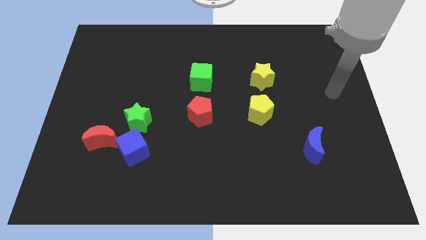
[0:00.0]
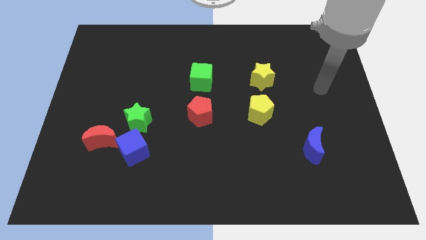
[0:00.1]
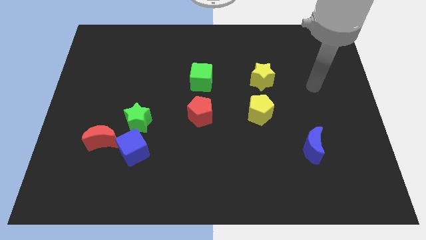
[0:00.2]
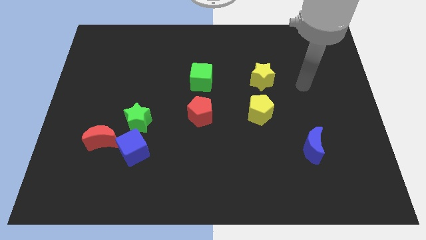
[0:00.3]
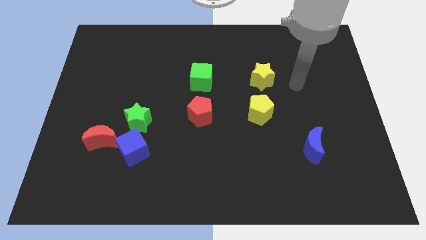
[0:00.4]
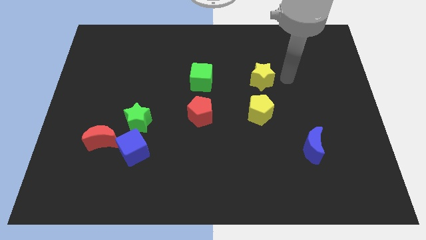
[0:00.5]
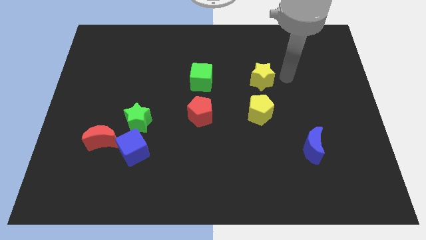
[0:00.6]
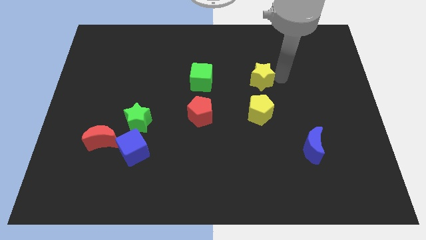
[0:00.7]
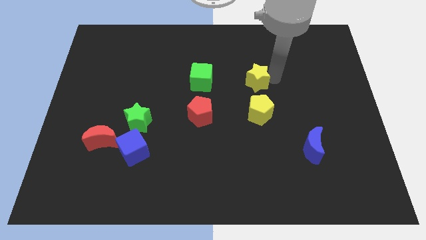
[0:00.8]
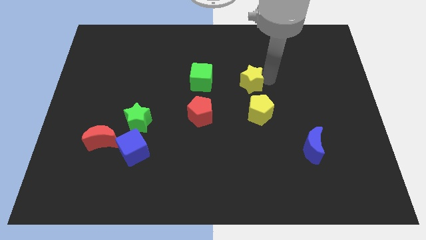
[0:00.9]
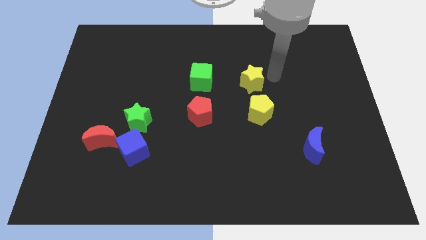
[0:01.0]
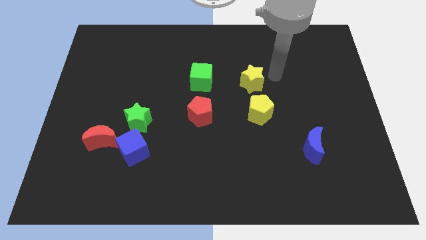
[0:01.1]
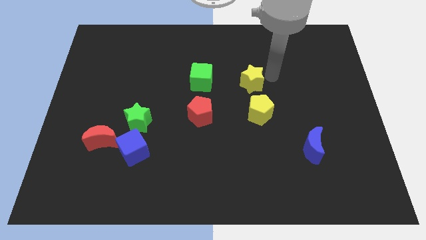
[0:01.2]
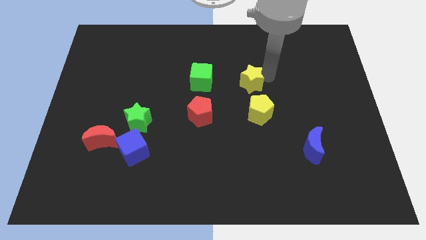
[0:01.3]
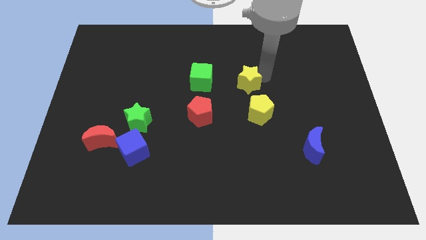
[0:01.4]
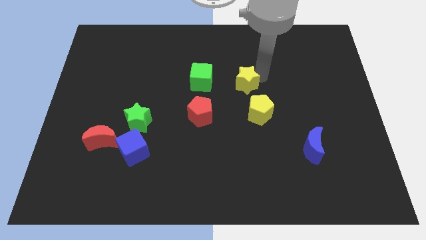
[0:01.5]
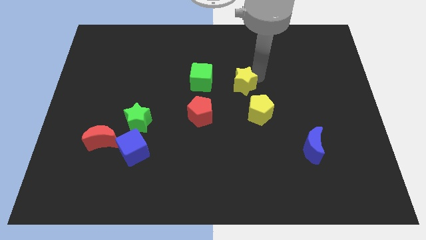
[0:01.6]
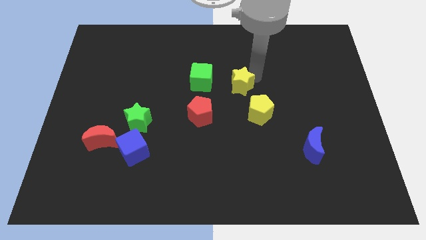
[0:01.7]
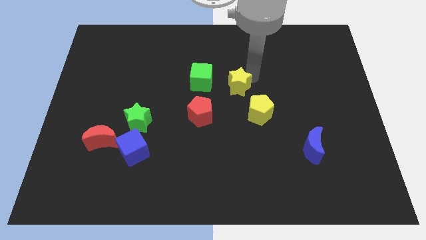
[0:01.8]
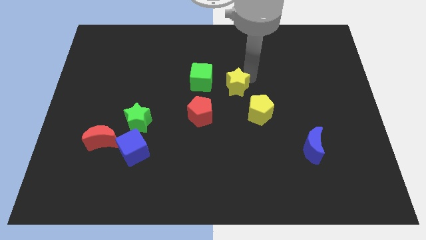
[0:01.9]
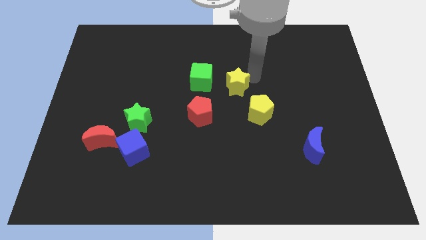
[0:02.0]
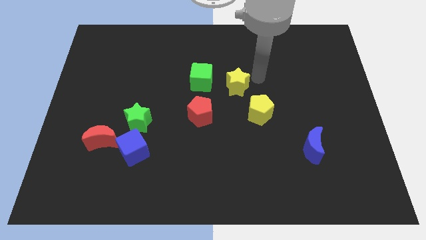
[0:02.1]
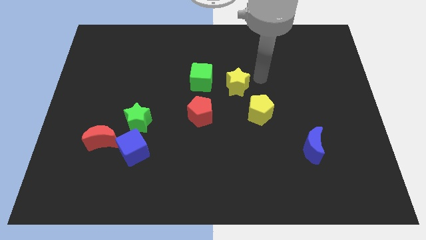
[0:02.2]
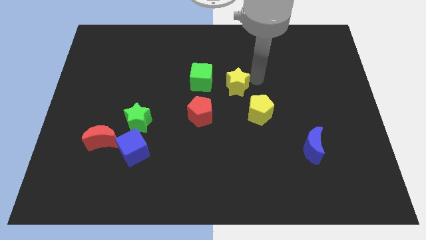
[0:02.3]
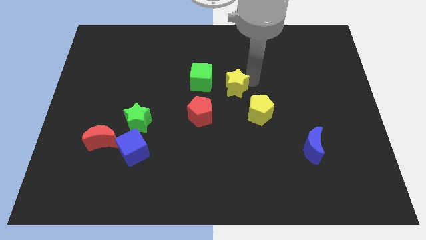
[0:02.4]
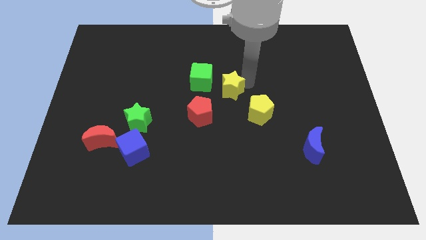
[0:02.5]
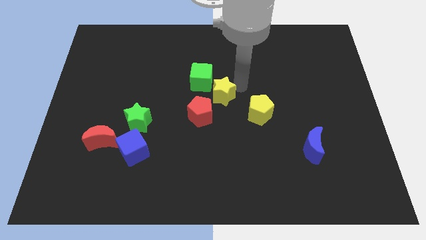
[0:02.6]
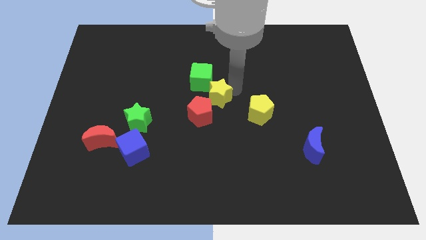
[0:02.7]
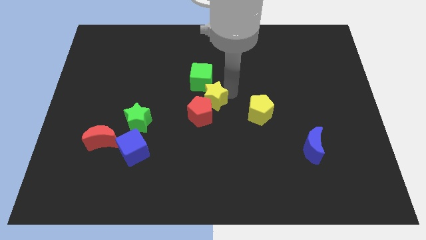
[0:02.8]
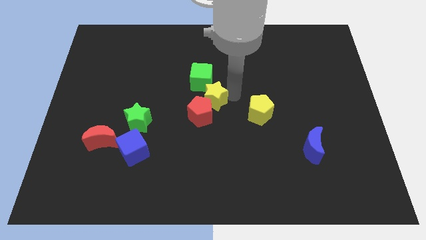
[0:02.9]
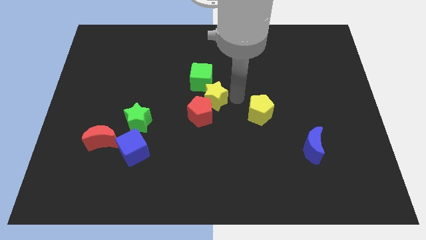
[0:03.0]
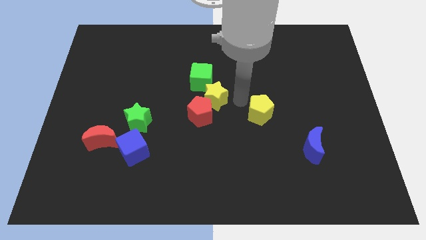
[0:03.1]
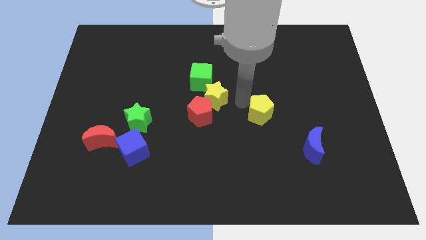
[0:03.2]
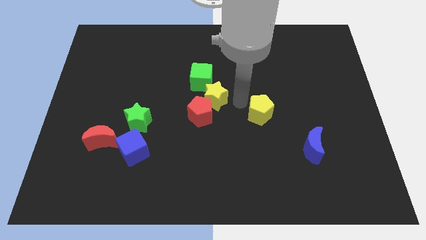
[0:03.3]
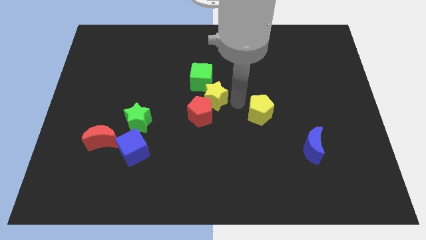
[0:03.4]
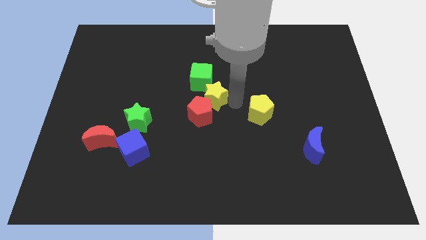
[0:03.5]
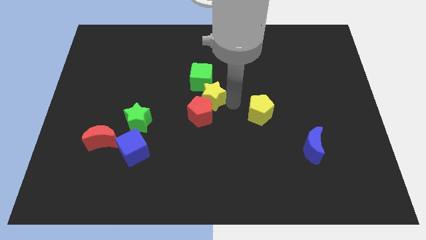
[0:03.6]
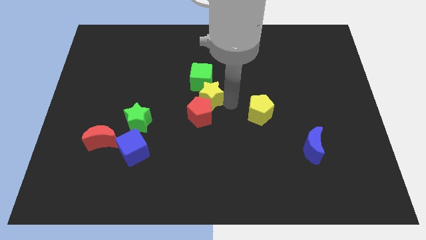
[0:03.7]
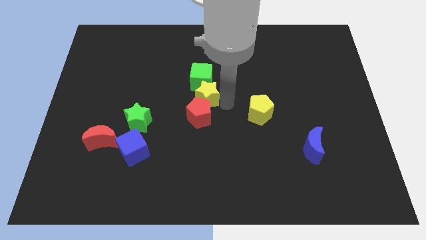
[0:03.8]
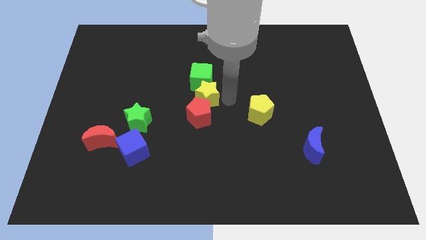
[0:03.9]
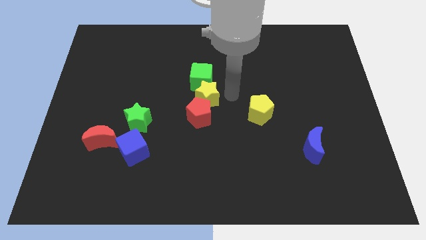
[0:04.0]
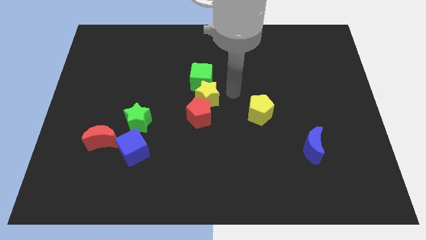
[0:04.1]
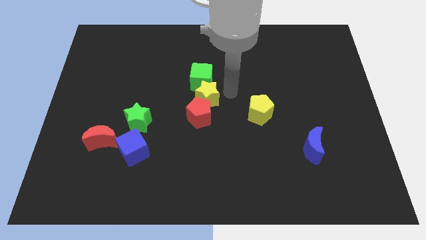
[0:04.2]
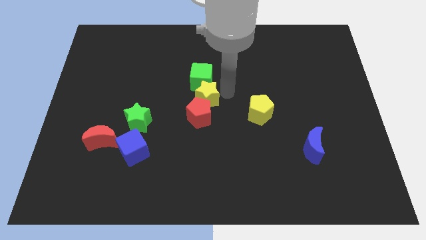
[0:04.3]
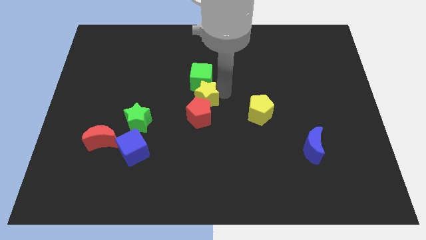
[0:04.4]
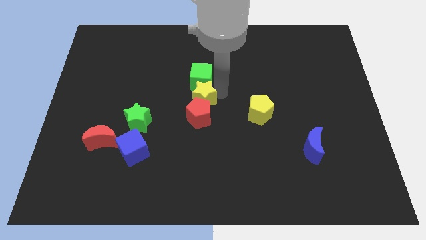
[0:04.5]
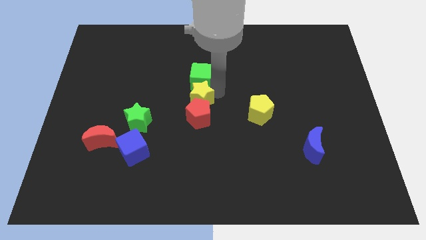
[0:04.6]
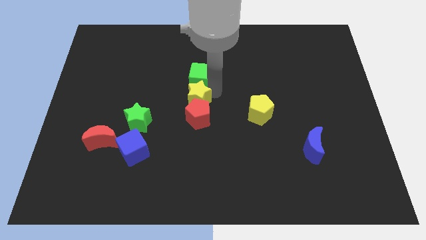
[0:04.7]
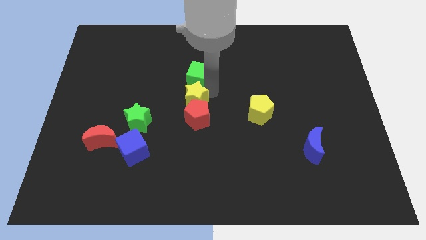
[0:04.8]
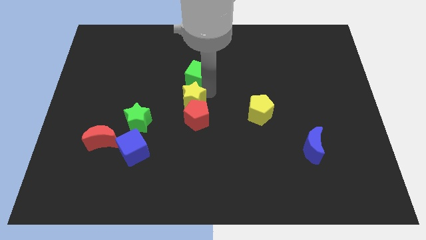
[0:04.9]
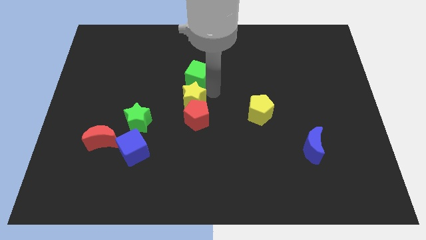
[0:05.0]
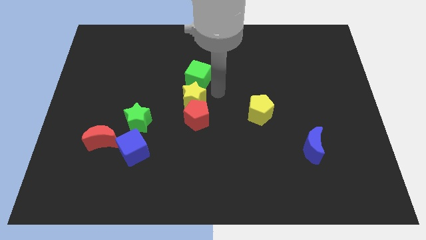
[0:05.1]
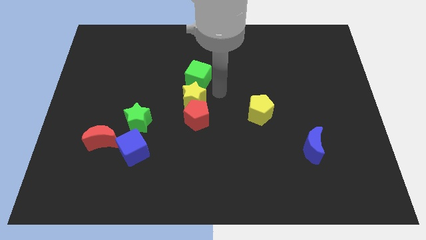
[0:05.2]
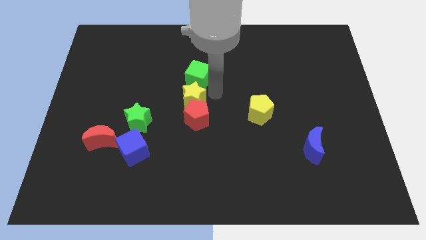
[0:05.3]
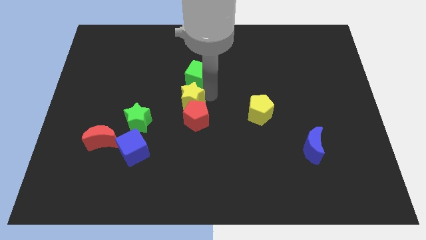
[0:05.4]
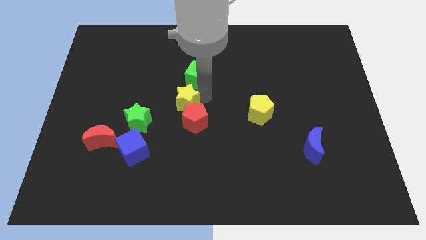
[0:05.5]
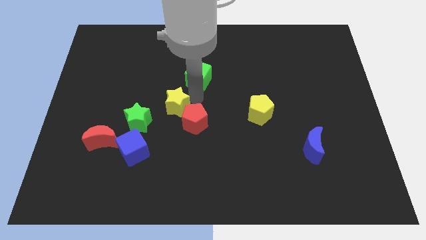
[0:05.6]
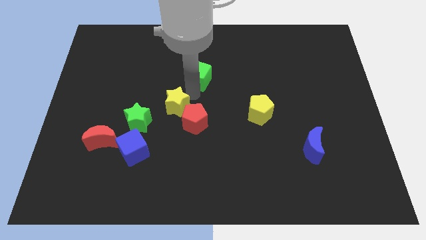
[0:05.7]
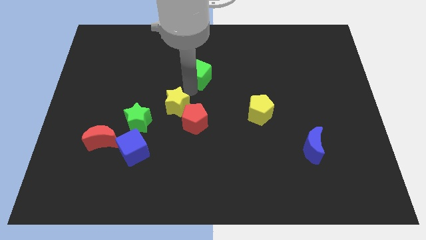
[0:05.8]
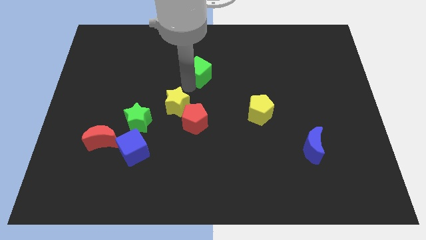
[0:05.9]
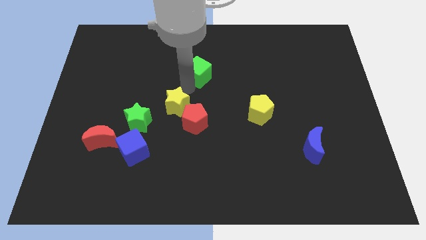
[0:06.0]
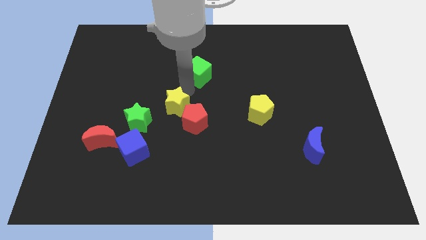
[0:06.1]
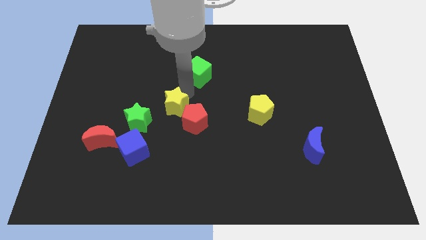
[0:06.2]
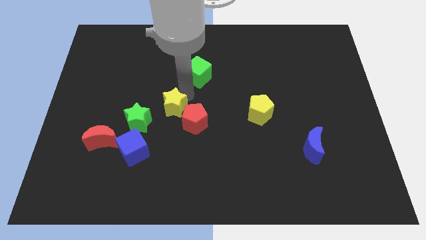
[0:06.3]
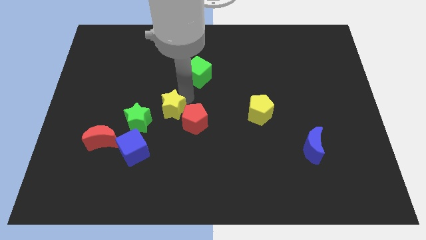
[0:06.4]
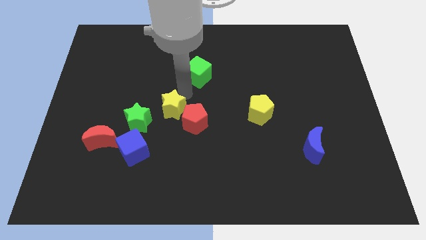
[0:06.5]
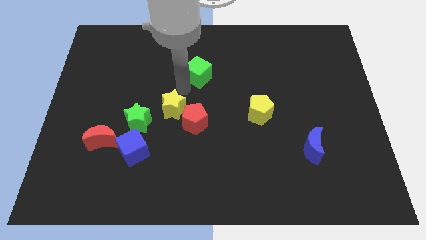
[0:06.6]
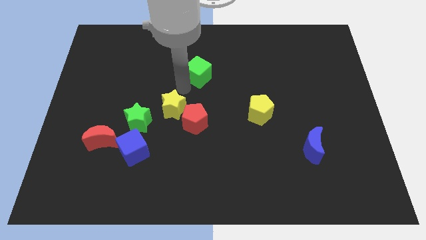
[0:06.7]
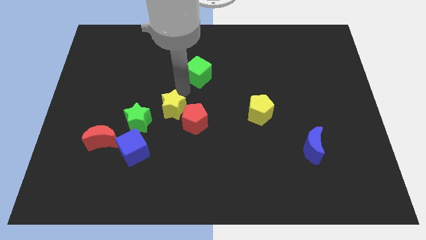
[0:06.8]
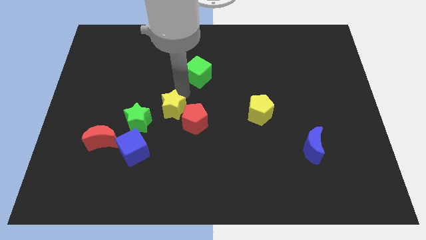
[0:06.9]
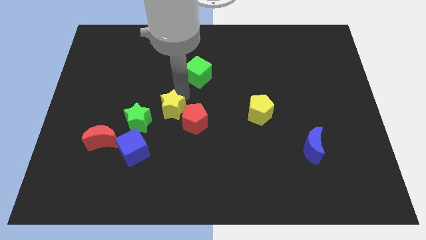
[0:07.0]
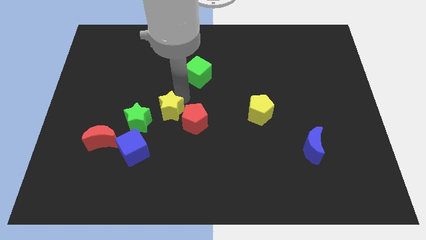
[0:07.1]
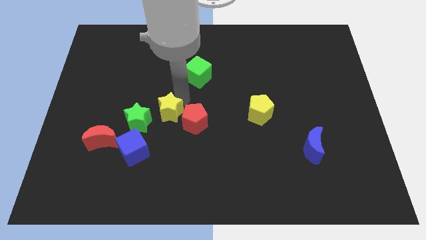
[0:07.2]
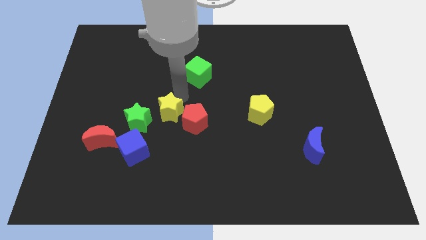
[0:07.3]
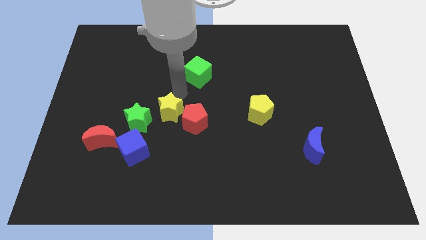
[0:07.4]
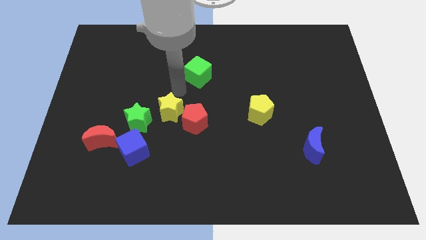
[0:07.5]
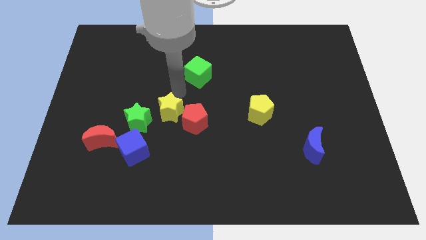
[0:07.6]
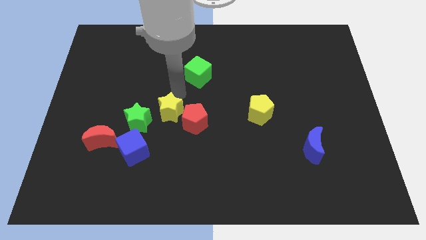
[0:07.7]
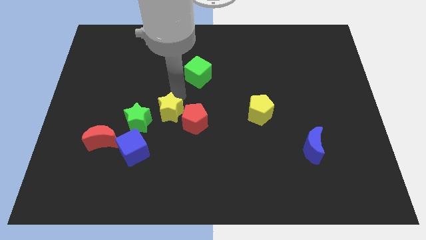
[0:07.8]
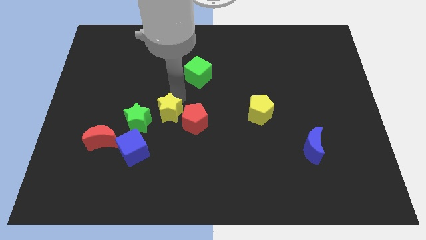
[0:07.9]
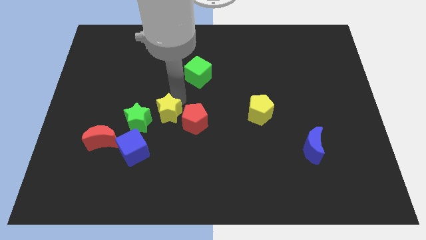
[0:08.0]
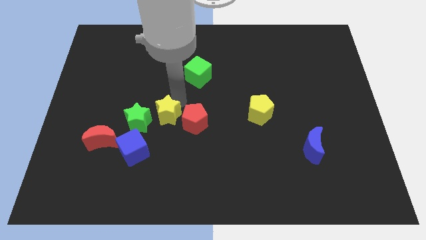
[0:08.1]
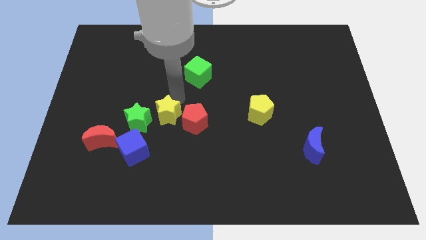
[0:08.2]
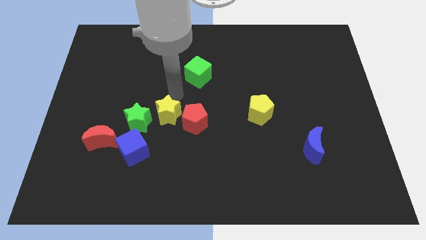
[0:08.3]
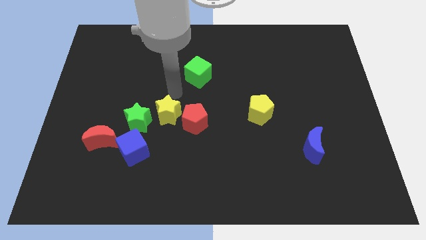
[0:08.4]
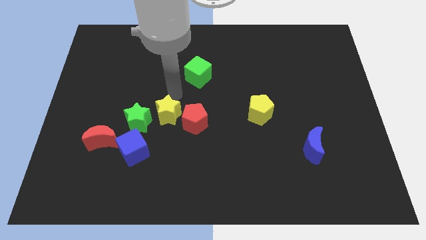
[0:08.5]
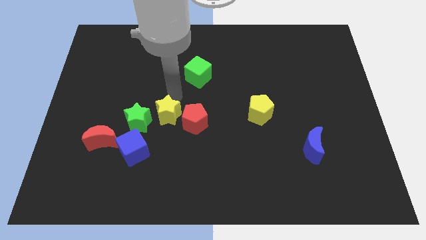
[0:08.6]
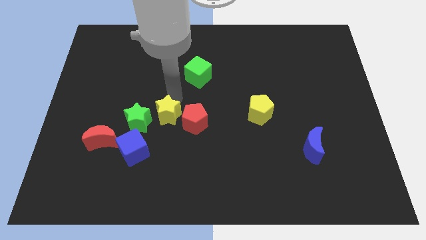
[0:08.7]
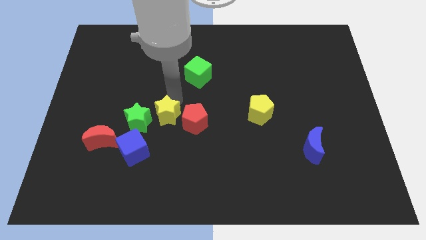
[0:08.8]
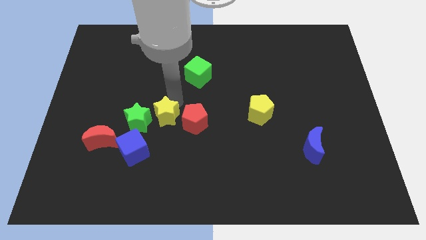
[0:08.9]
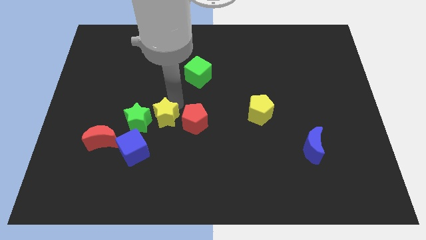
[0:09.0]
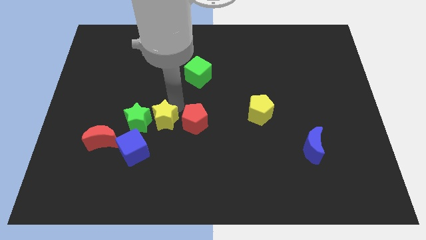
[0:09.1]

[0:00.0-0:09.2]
slide the yellow star to the bottom right of the green star
